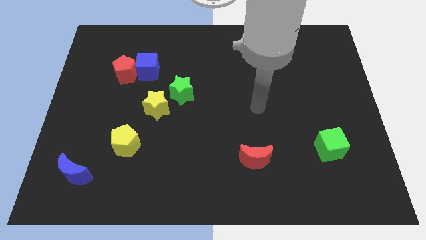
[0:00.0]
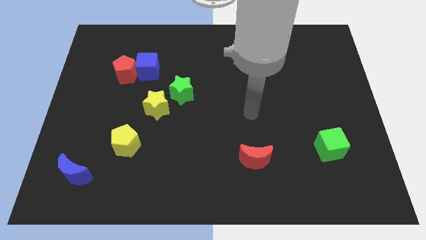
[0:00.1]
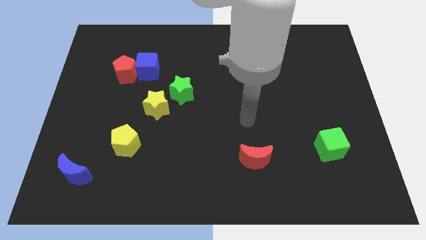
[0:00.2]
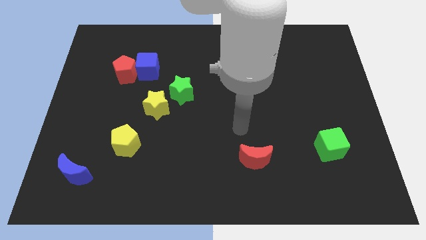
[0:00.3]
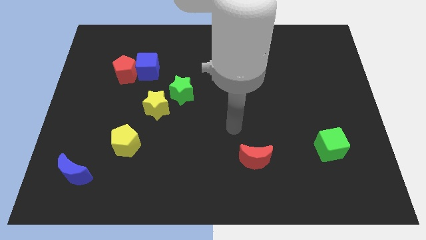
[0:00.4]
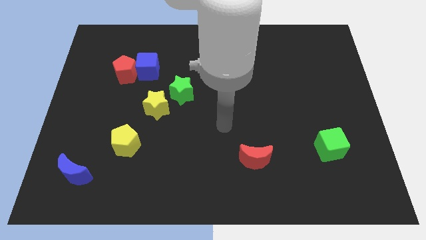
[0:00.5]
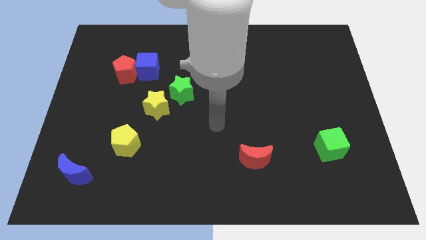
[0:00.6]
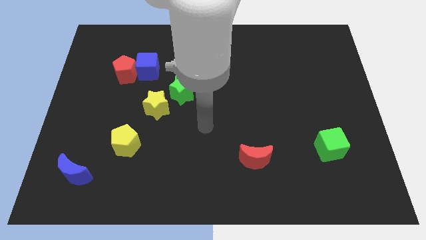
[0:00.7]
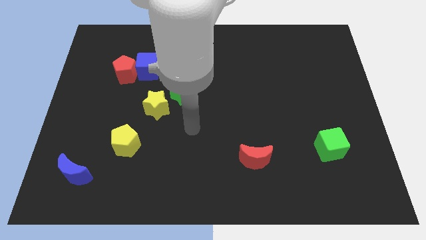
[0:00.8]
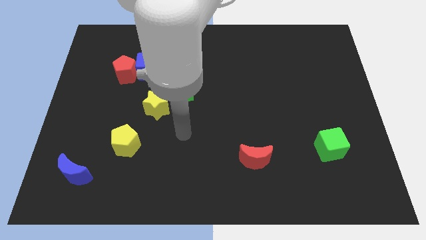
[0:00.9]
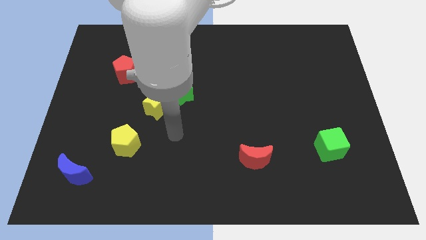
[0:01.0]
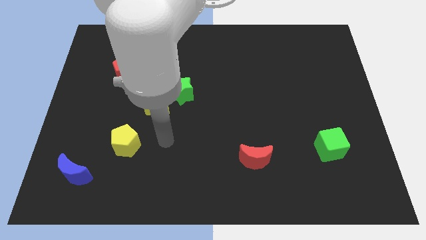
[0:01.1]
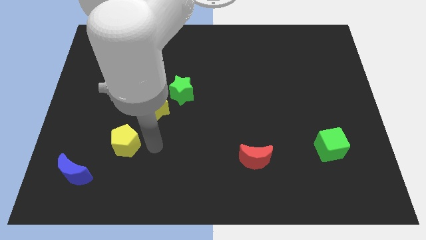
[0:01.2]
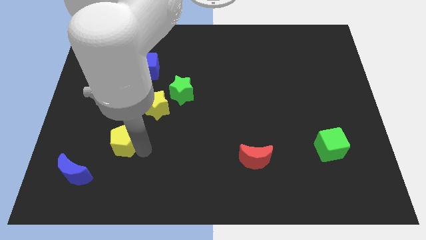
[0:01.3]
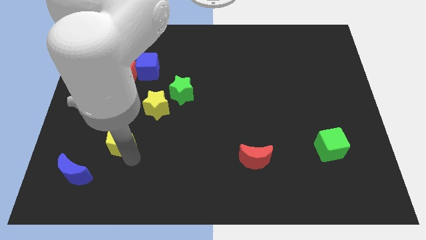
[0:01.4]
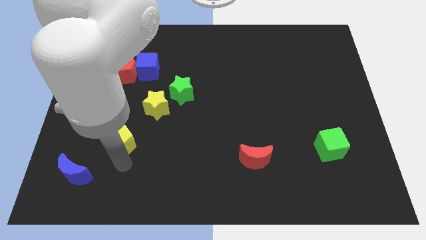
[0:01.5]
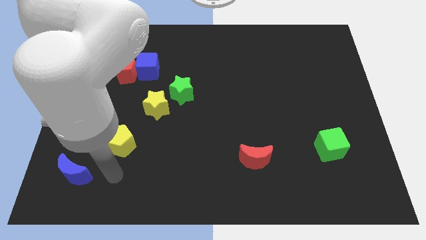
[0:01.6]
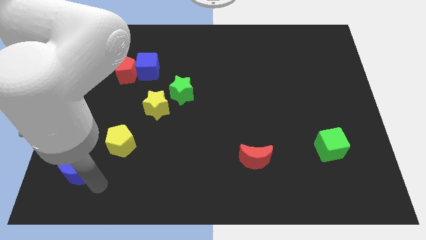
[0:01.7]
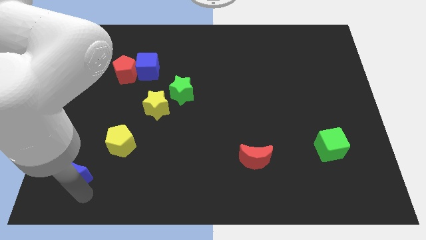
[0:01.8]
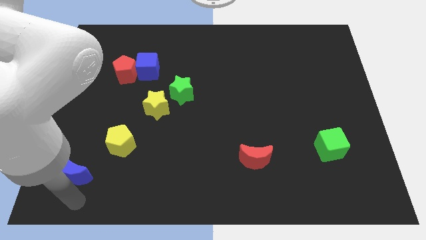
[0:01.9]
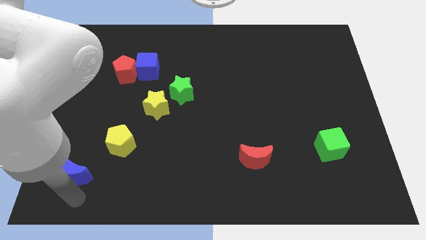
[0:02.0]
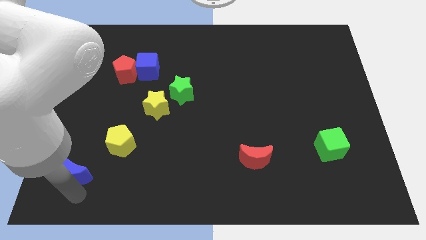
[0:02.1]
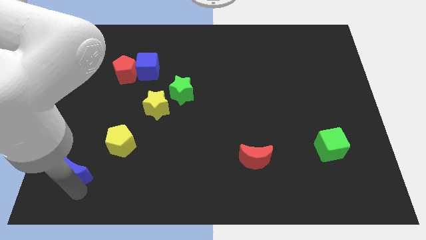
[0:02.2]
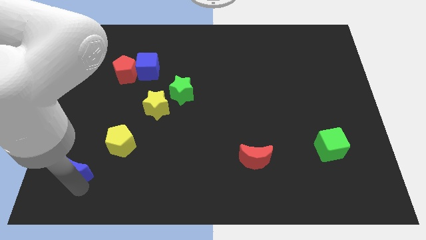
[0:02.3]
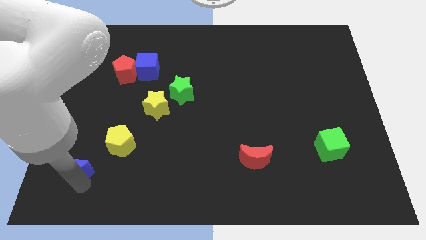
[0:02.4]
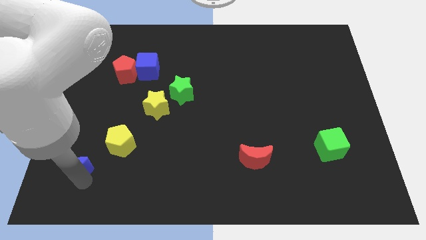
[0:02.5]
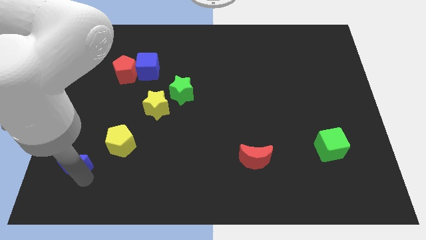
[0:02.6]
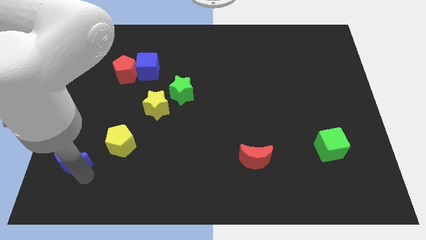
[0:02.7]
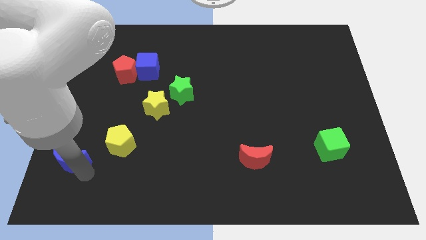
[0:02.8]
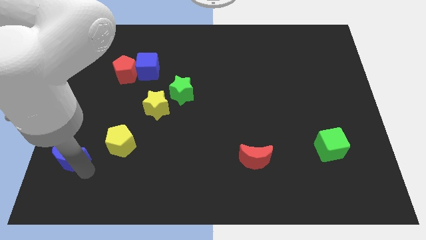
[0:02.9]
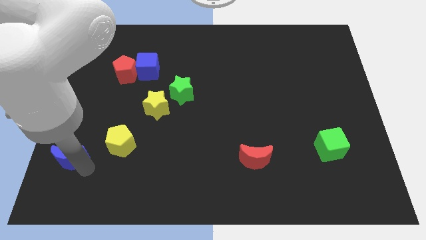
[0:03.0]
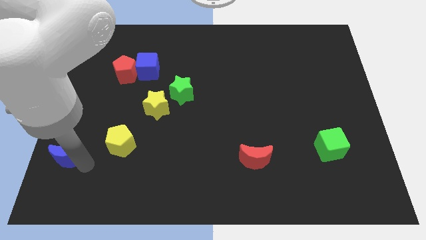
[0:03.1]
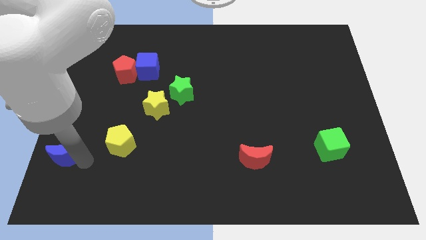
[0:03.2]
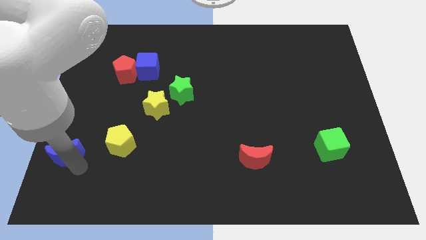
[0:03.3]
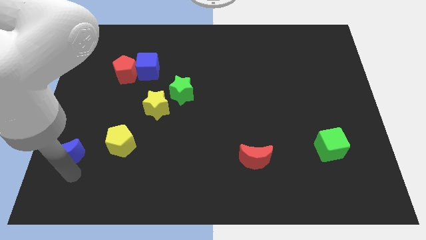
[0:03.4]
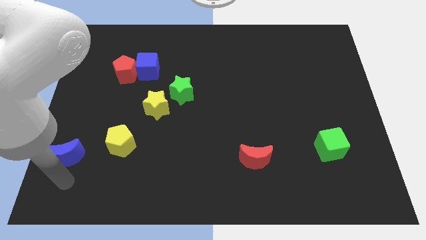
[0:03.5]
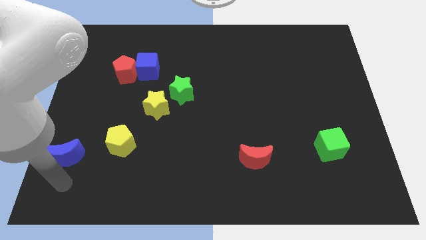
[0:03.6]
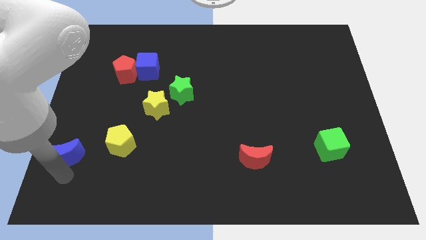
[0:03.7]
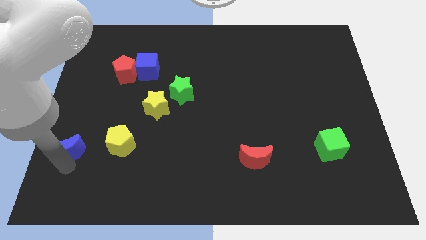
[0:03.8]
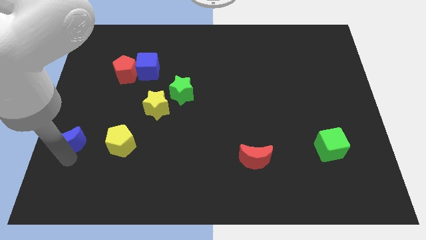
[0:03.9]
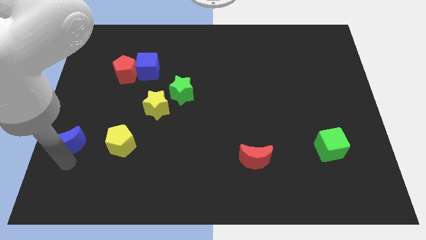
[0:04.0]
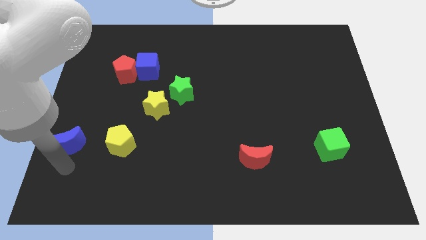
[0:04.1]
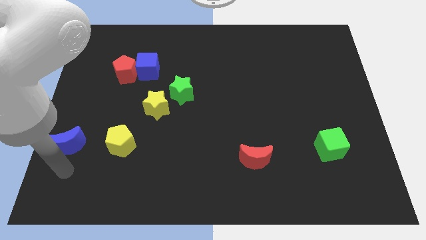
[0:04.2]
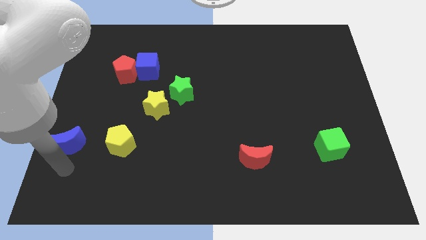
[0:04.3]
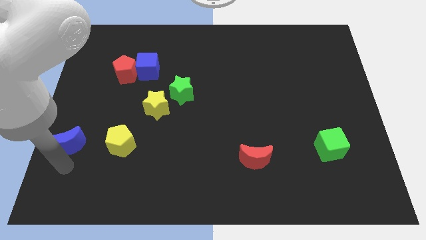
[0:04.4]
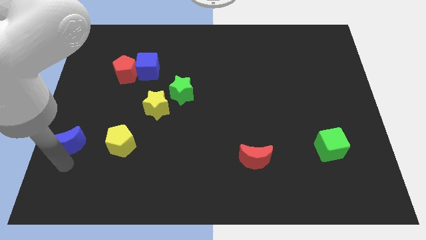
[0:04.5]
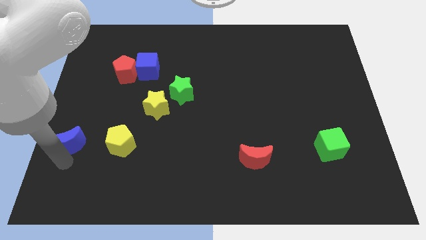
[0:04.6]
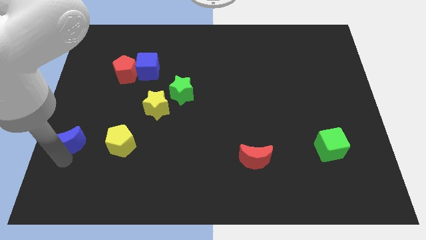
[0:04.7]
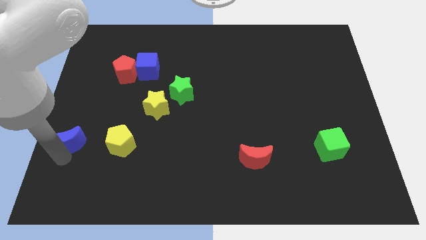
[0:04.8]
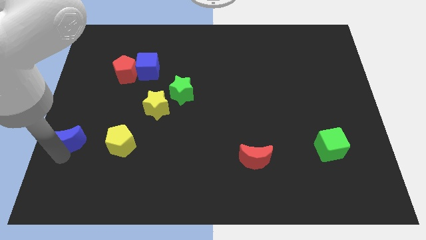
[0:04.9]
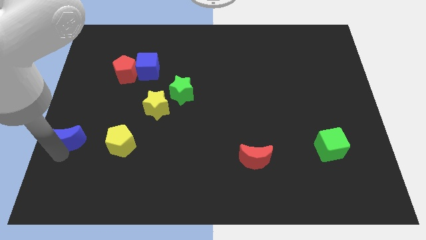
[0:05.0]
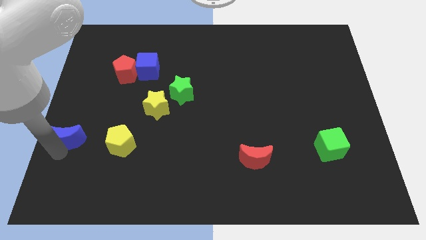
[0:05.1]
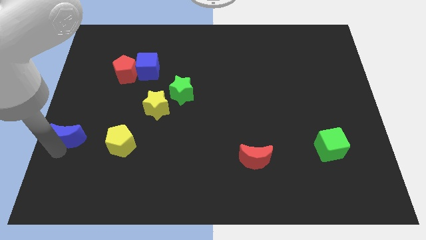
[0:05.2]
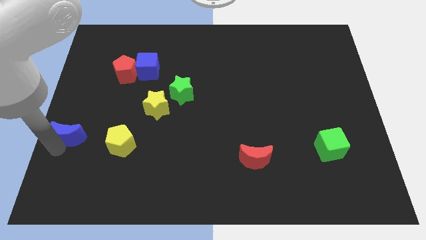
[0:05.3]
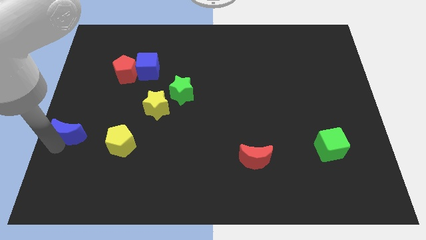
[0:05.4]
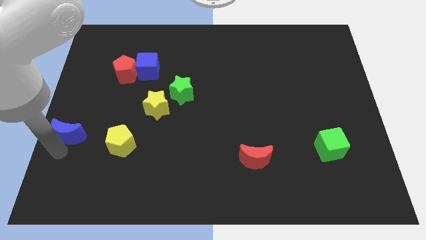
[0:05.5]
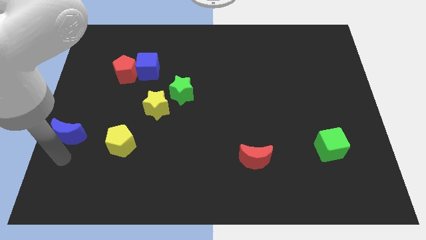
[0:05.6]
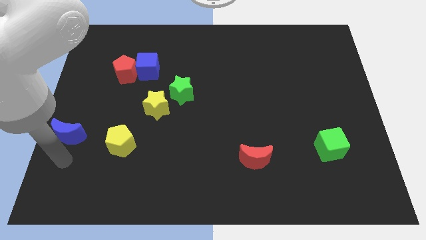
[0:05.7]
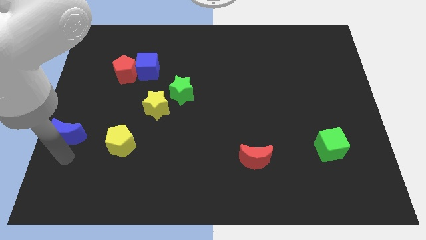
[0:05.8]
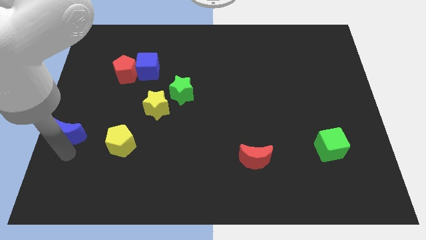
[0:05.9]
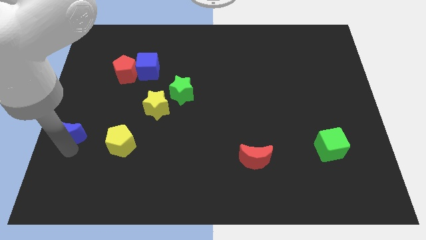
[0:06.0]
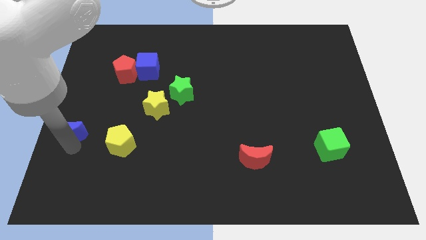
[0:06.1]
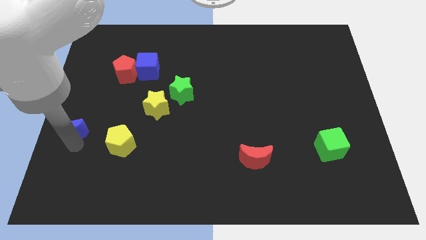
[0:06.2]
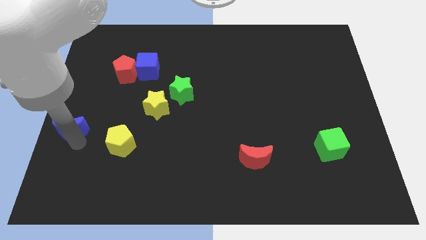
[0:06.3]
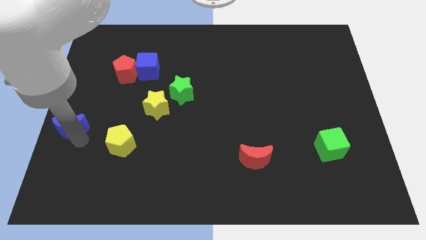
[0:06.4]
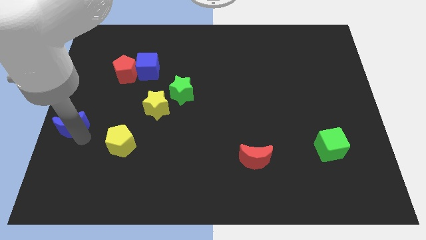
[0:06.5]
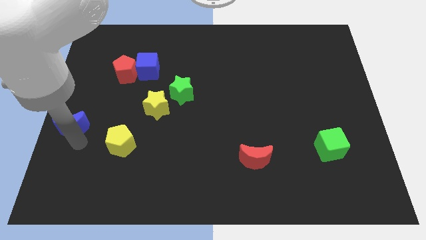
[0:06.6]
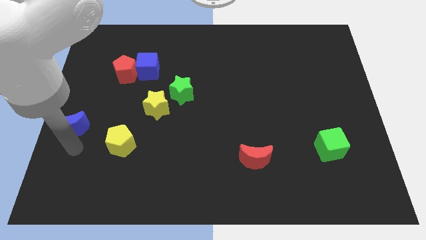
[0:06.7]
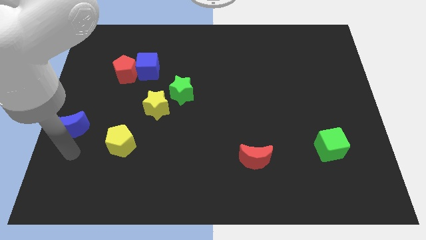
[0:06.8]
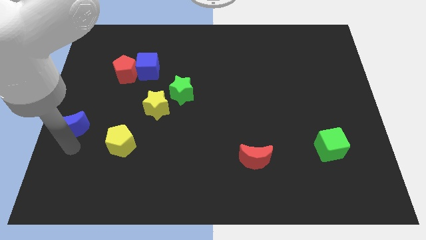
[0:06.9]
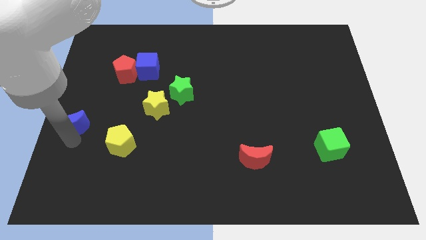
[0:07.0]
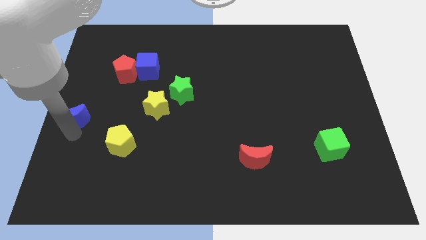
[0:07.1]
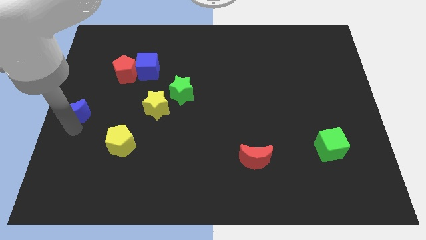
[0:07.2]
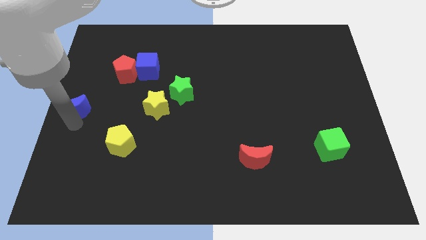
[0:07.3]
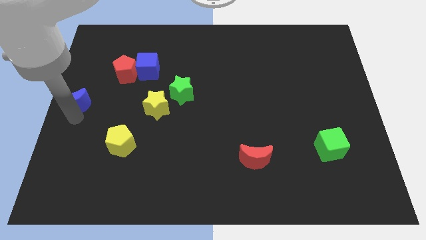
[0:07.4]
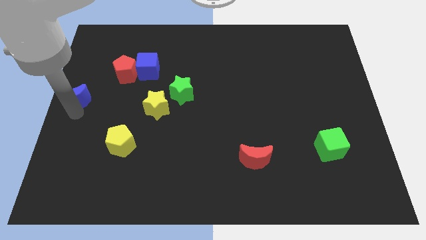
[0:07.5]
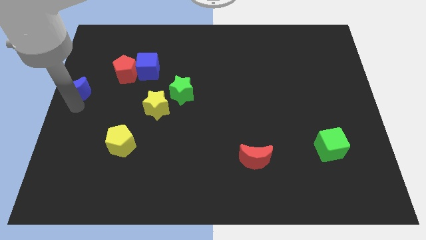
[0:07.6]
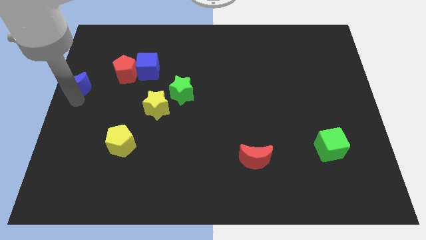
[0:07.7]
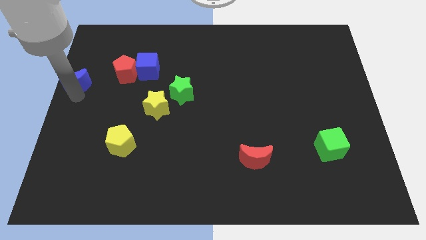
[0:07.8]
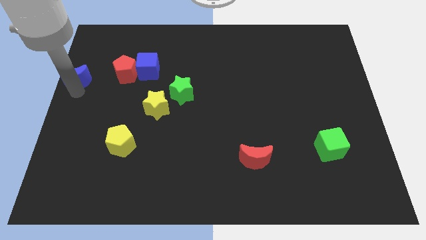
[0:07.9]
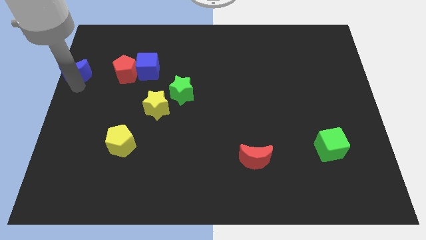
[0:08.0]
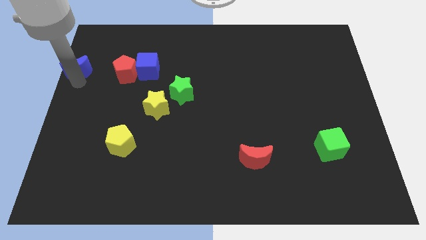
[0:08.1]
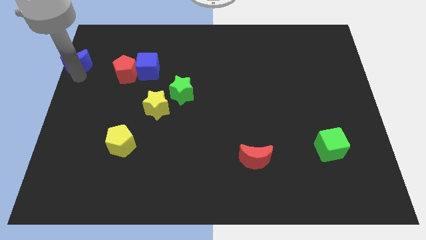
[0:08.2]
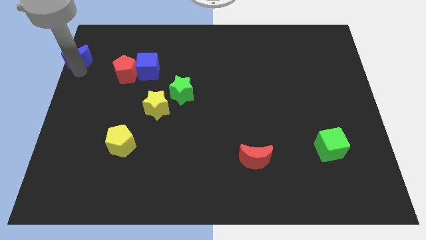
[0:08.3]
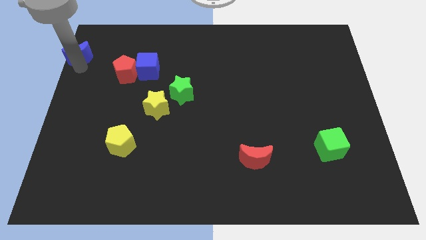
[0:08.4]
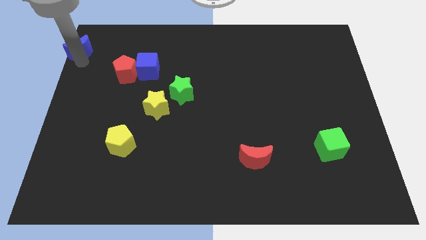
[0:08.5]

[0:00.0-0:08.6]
slide the blue moon to the top left of the board
